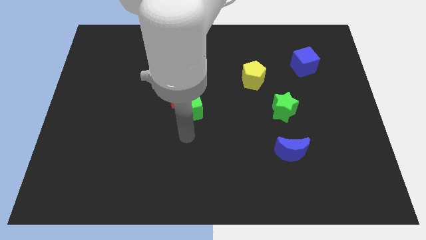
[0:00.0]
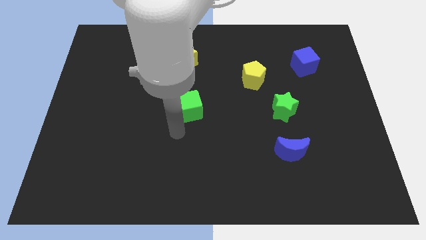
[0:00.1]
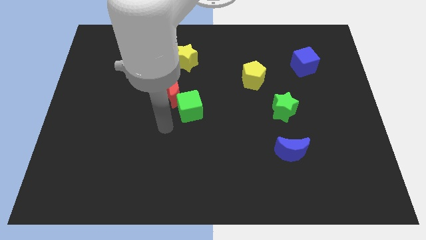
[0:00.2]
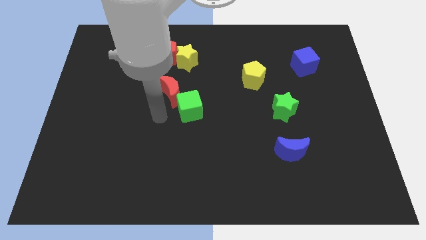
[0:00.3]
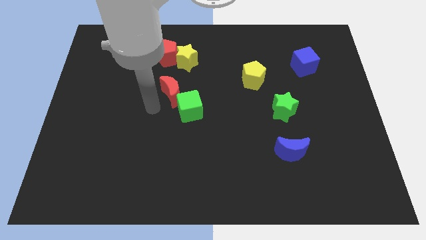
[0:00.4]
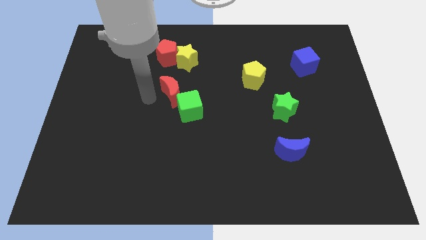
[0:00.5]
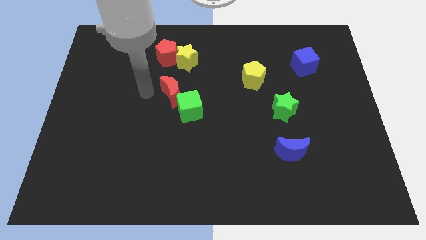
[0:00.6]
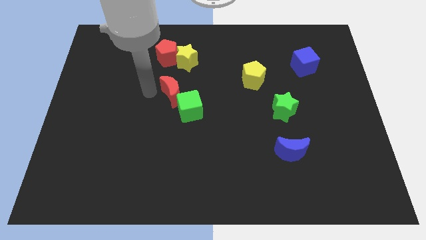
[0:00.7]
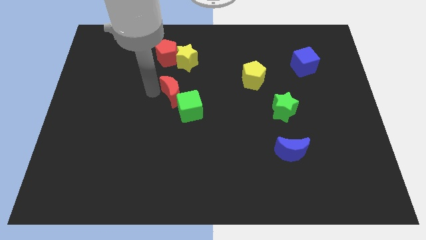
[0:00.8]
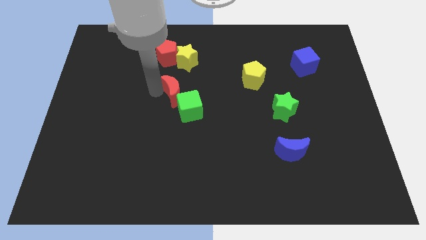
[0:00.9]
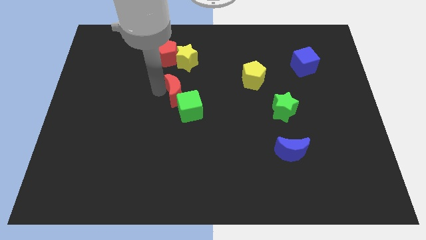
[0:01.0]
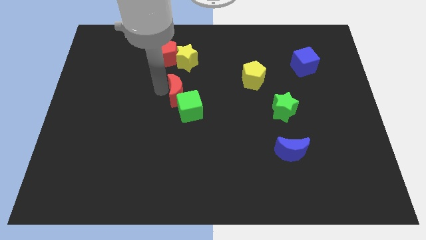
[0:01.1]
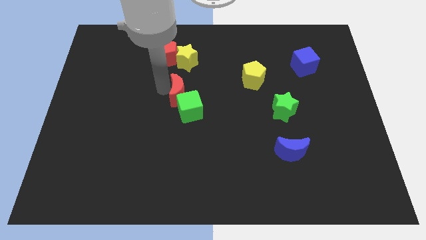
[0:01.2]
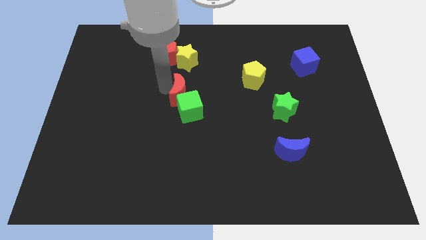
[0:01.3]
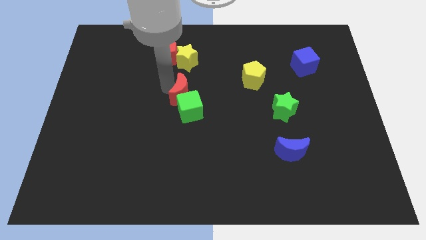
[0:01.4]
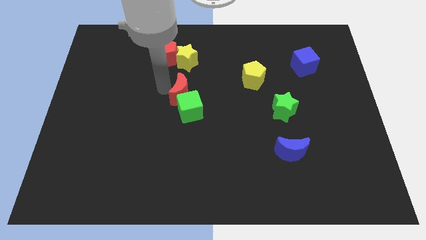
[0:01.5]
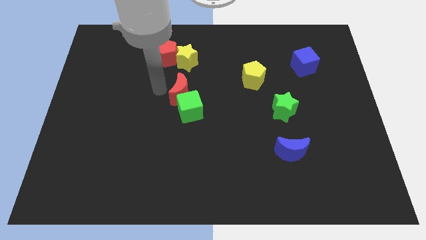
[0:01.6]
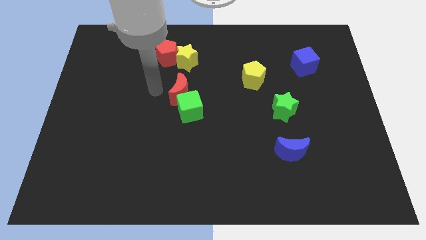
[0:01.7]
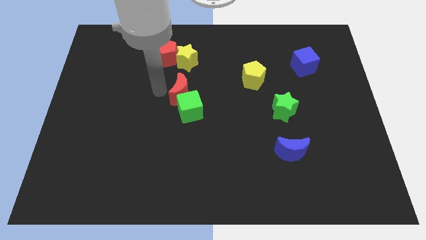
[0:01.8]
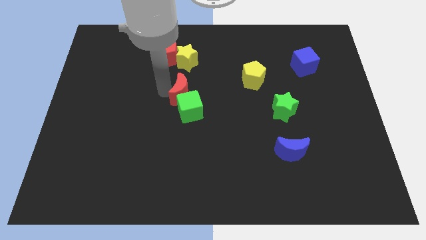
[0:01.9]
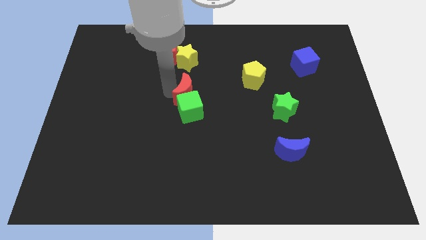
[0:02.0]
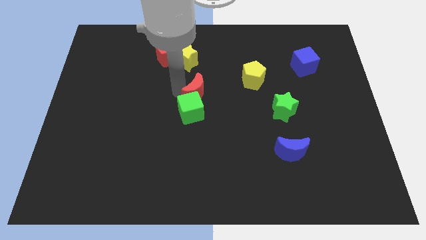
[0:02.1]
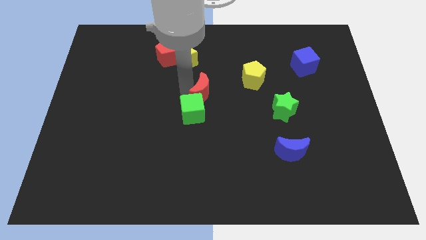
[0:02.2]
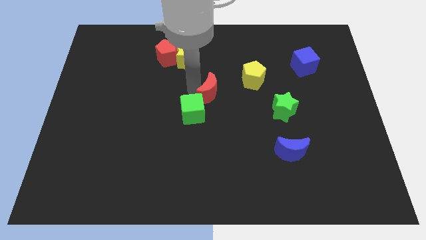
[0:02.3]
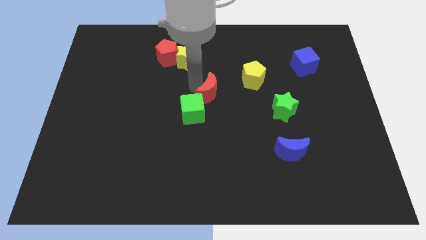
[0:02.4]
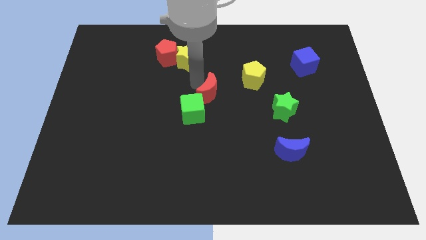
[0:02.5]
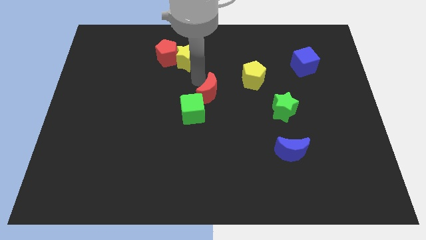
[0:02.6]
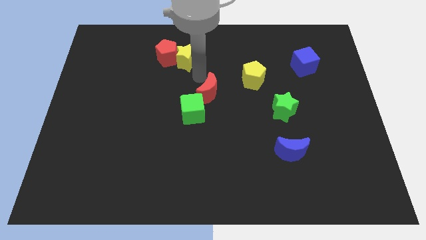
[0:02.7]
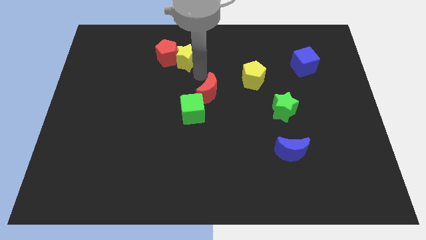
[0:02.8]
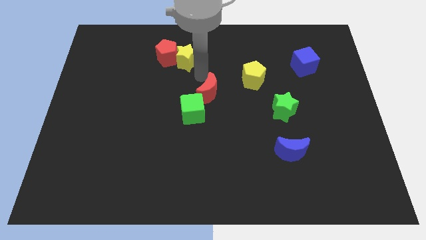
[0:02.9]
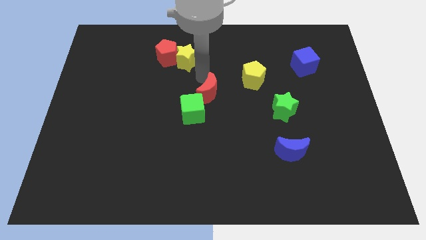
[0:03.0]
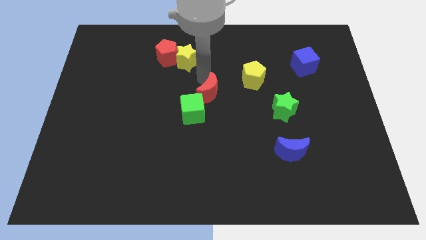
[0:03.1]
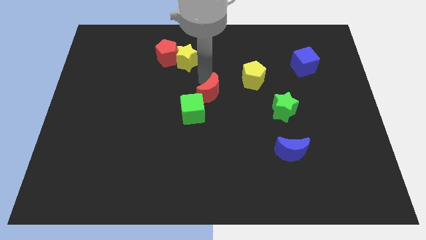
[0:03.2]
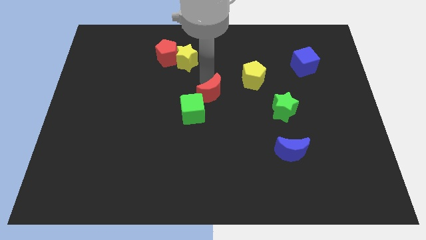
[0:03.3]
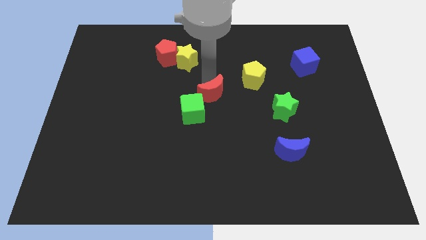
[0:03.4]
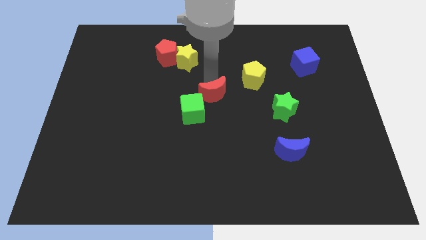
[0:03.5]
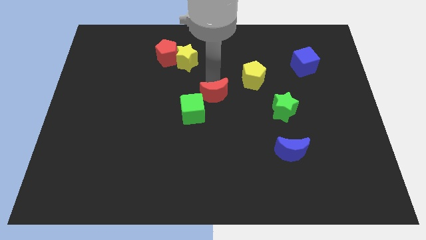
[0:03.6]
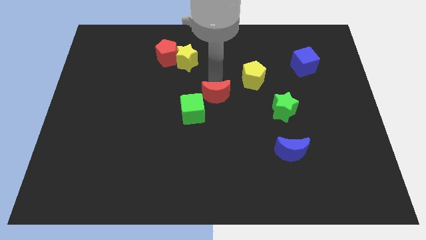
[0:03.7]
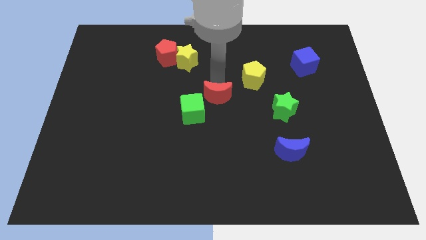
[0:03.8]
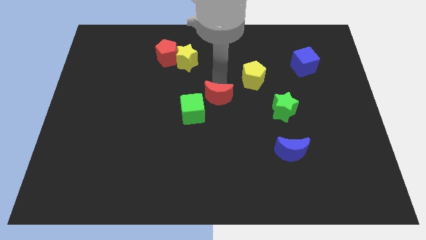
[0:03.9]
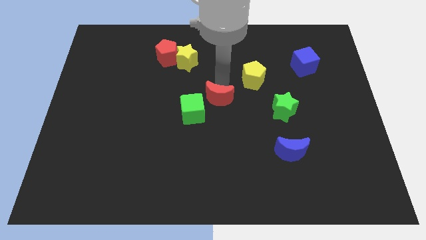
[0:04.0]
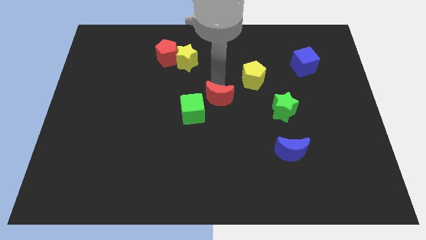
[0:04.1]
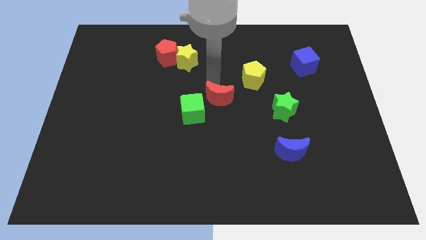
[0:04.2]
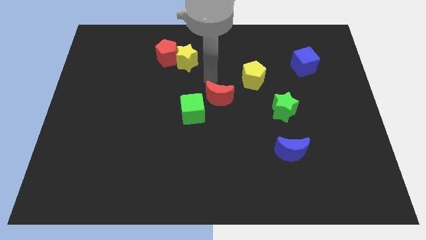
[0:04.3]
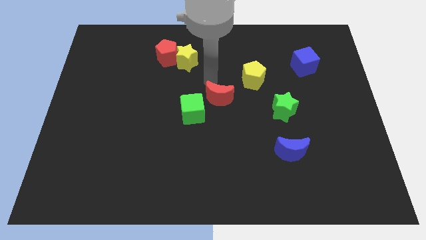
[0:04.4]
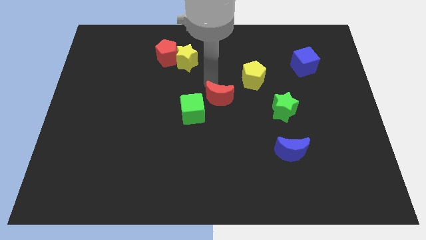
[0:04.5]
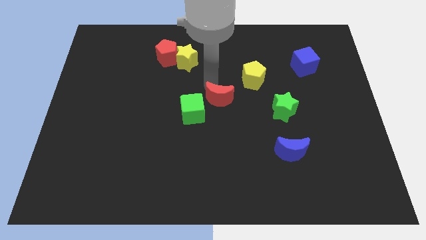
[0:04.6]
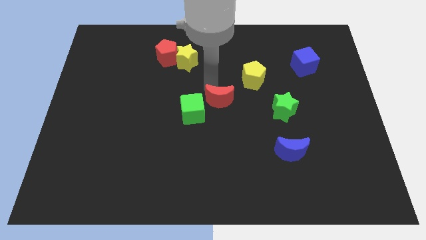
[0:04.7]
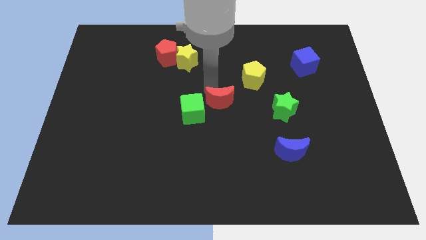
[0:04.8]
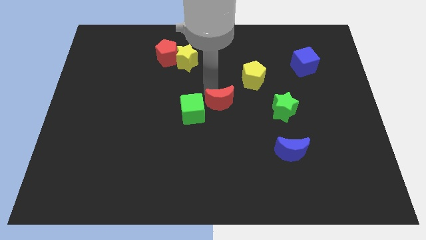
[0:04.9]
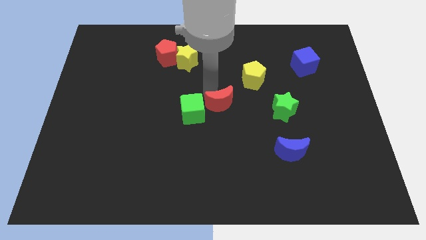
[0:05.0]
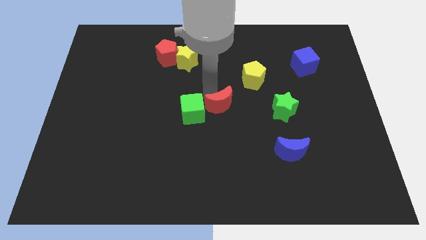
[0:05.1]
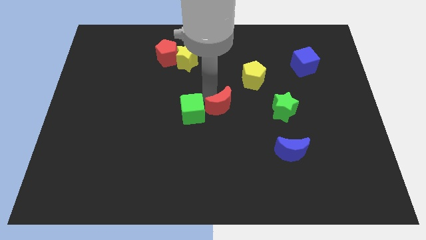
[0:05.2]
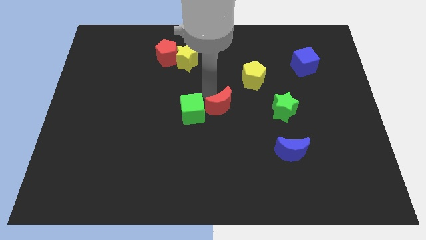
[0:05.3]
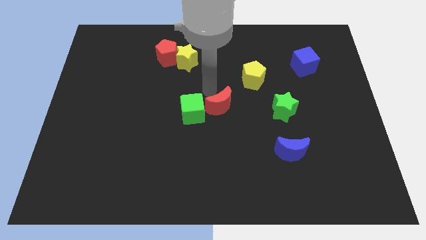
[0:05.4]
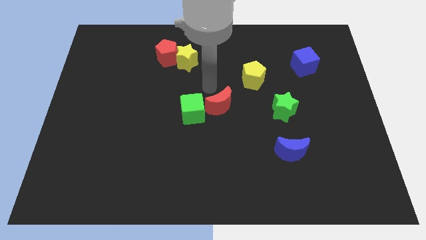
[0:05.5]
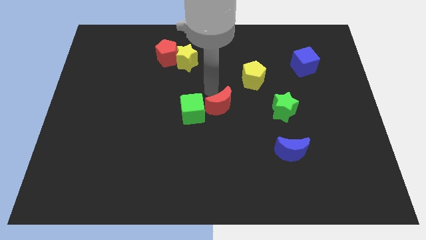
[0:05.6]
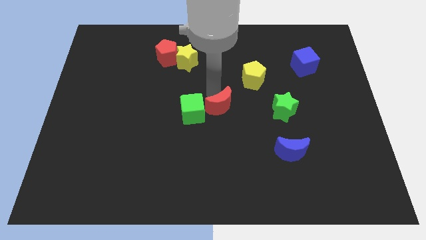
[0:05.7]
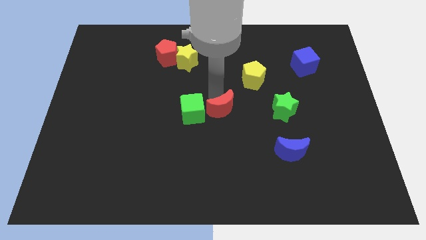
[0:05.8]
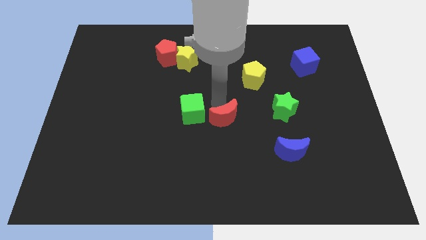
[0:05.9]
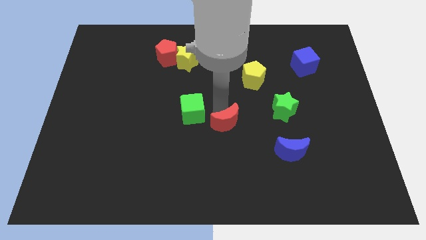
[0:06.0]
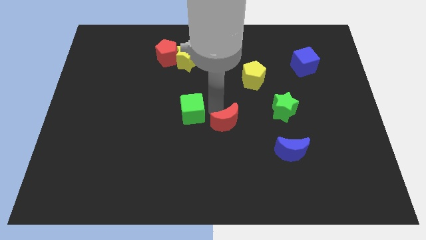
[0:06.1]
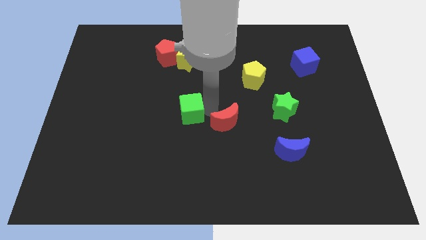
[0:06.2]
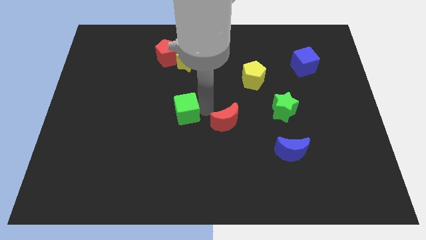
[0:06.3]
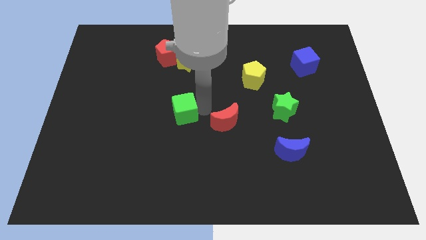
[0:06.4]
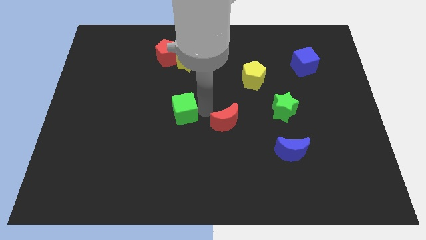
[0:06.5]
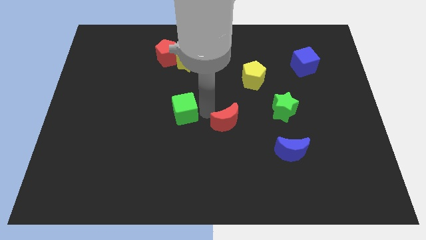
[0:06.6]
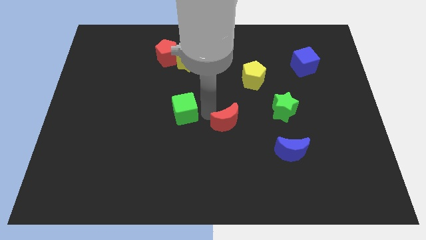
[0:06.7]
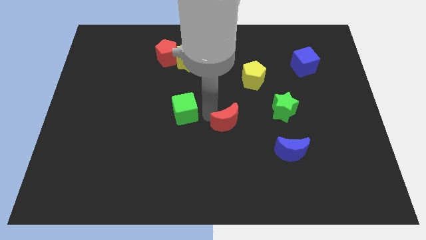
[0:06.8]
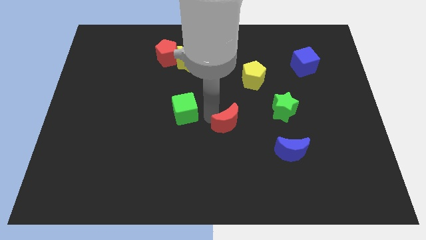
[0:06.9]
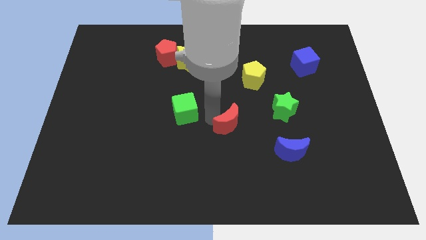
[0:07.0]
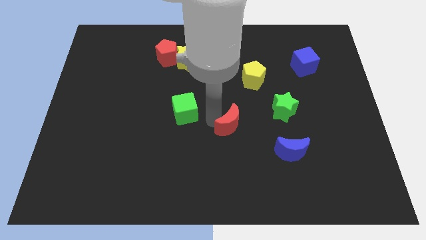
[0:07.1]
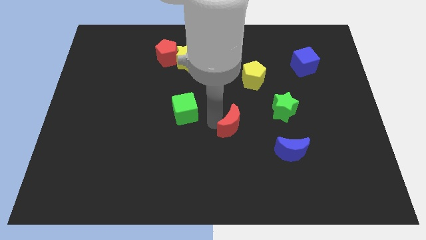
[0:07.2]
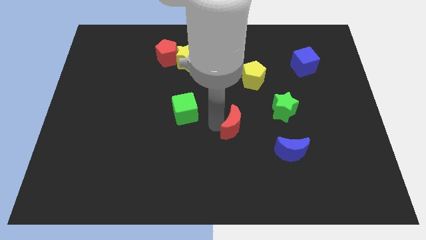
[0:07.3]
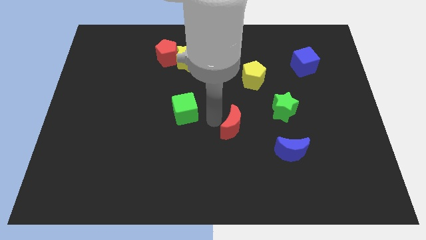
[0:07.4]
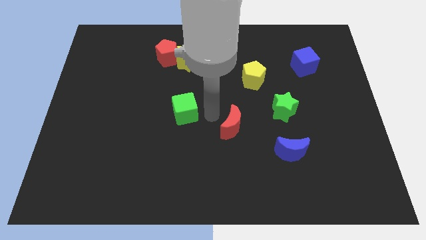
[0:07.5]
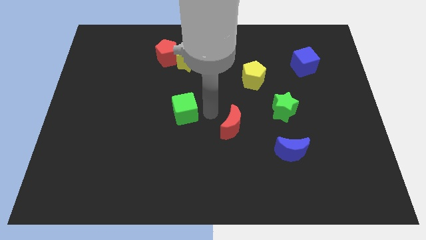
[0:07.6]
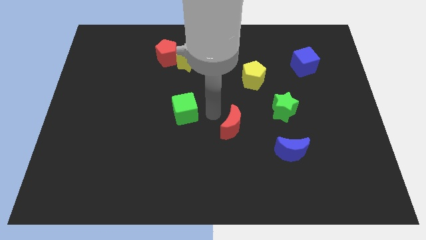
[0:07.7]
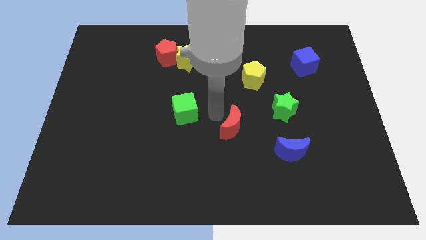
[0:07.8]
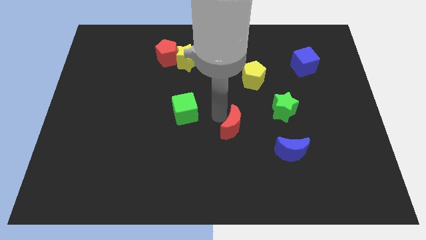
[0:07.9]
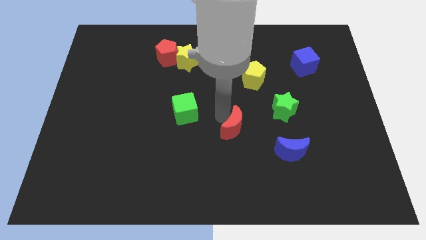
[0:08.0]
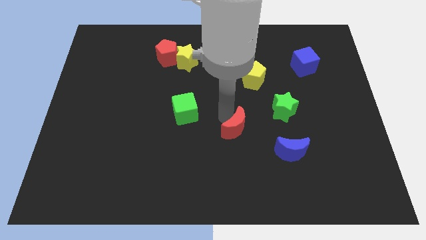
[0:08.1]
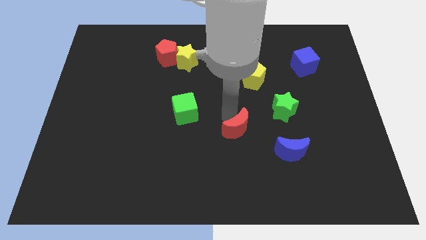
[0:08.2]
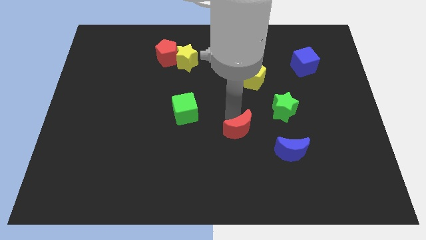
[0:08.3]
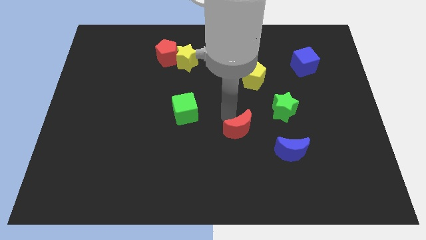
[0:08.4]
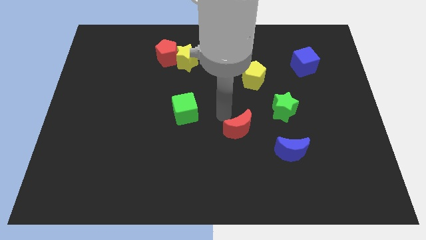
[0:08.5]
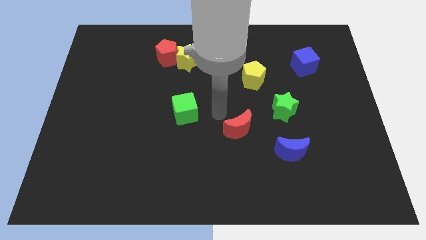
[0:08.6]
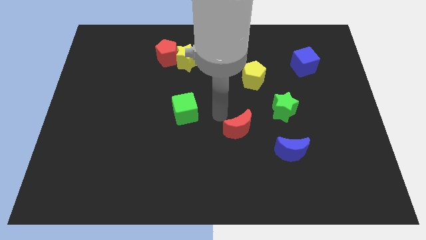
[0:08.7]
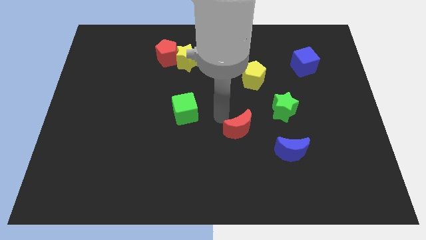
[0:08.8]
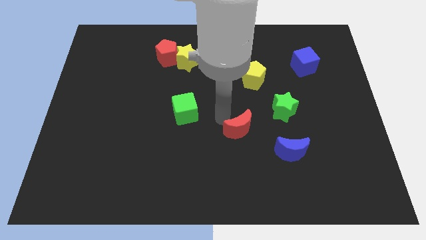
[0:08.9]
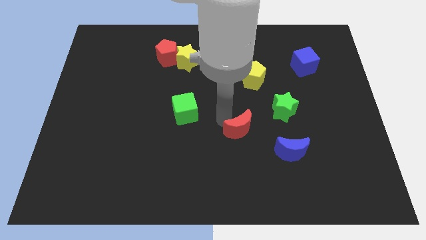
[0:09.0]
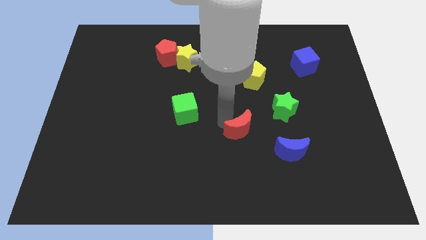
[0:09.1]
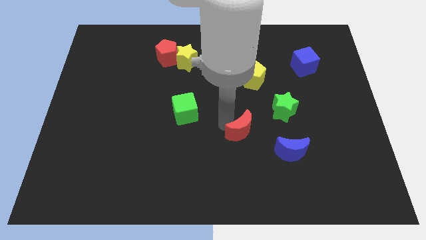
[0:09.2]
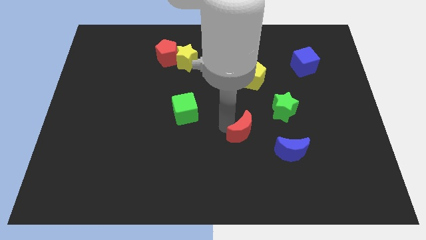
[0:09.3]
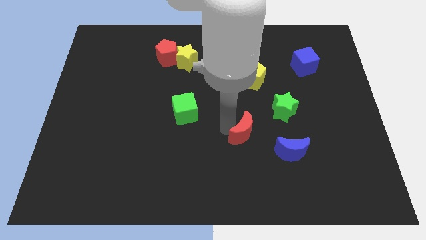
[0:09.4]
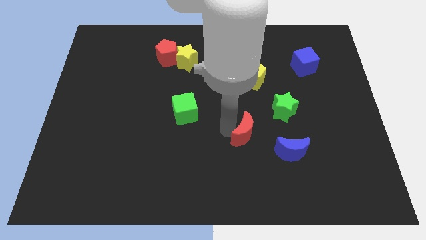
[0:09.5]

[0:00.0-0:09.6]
push the red moon down and right
